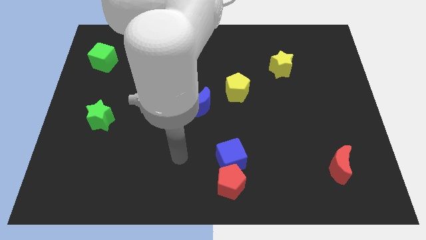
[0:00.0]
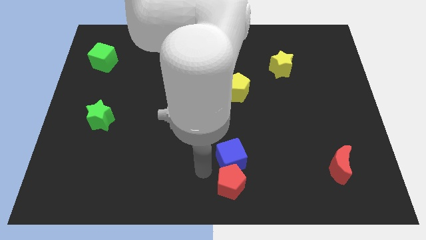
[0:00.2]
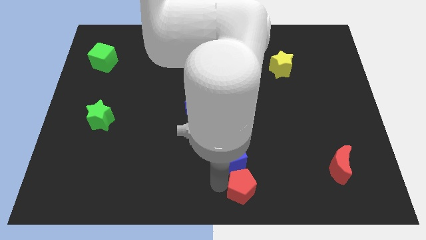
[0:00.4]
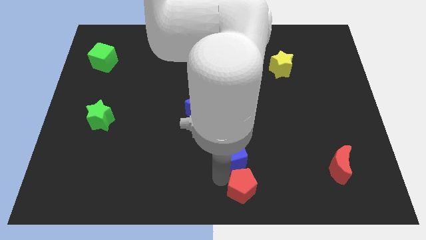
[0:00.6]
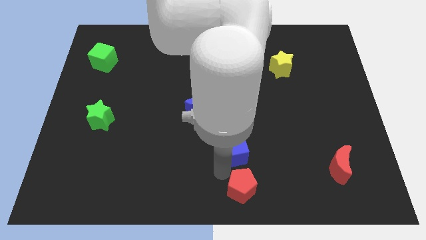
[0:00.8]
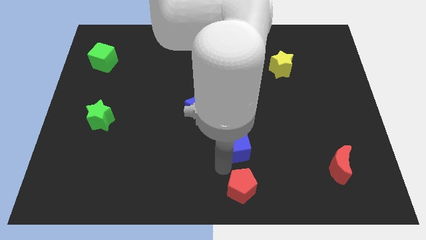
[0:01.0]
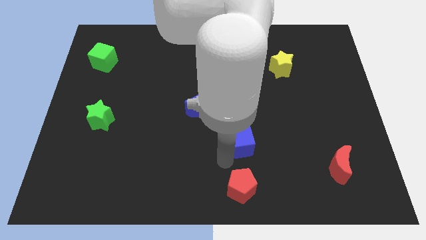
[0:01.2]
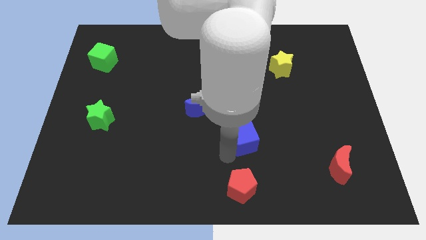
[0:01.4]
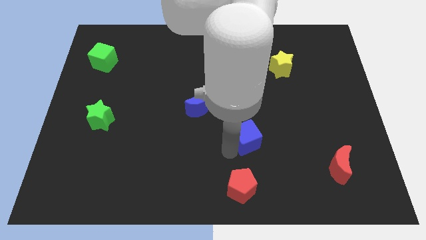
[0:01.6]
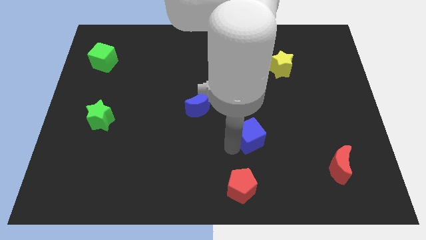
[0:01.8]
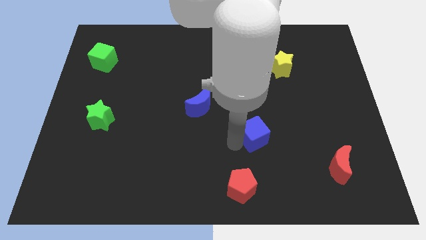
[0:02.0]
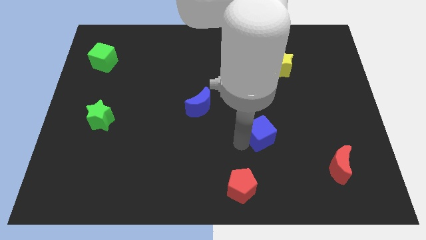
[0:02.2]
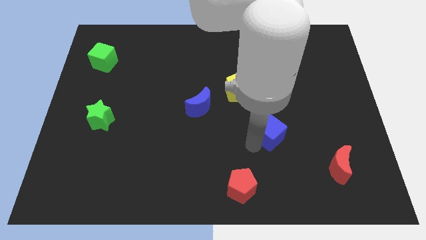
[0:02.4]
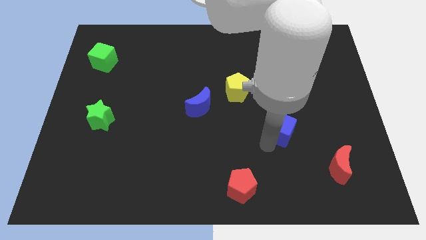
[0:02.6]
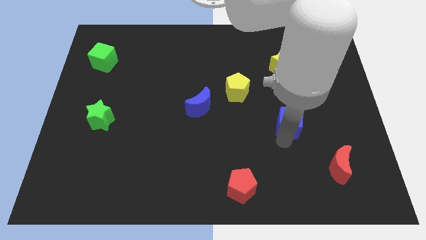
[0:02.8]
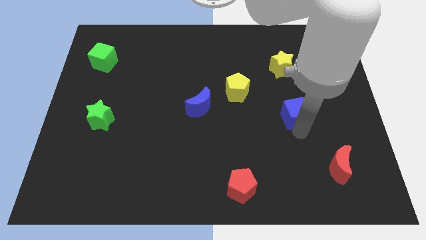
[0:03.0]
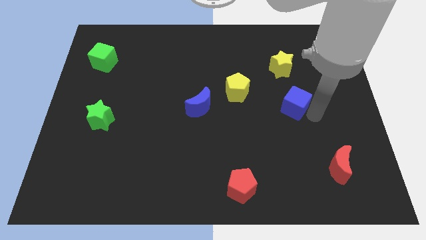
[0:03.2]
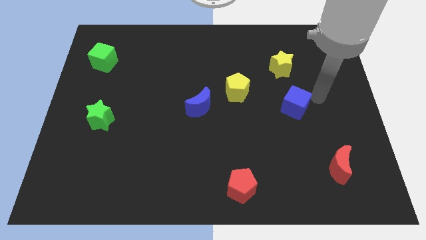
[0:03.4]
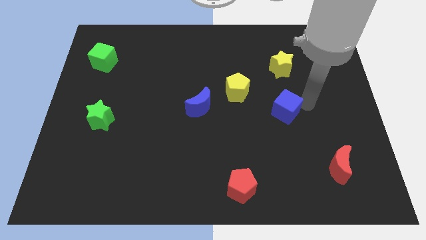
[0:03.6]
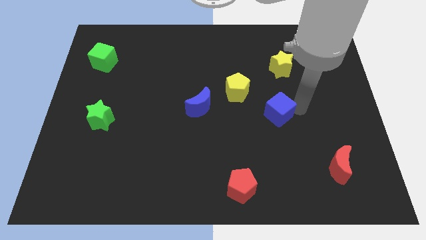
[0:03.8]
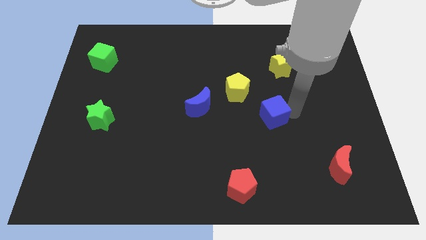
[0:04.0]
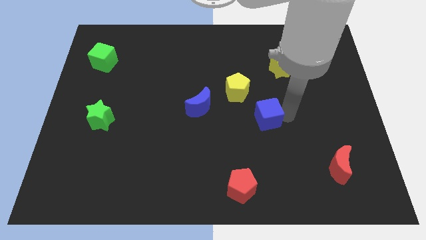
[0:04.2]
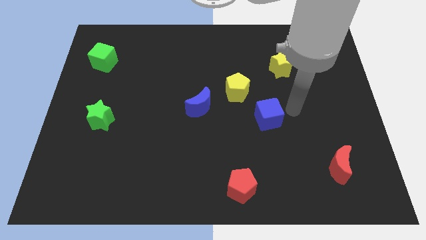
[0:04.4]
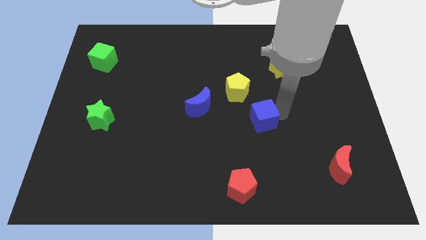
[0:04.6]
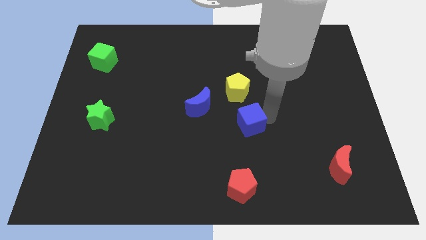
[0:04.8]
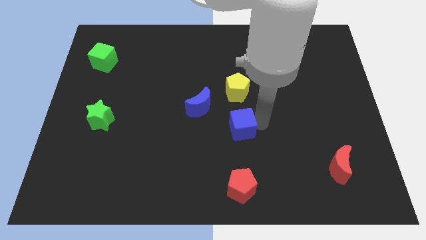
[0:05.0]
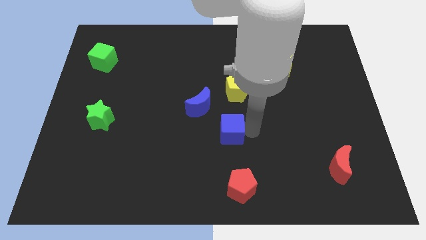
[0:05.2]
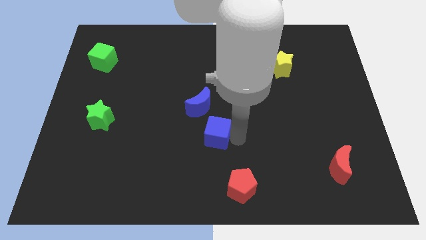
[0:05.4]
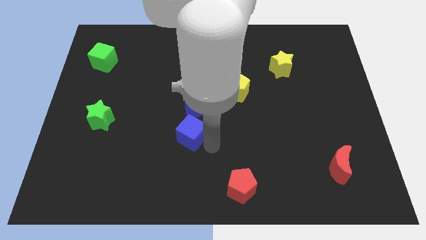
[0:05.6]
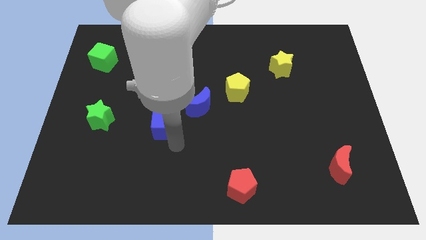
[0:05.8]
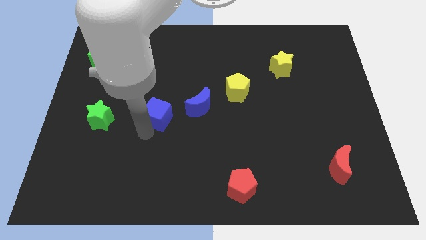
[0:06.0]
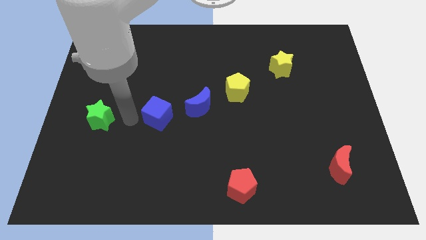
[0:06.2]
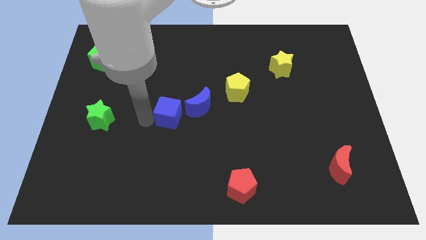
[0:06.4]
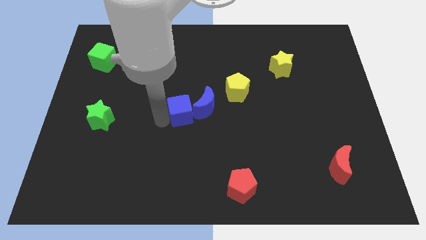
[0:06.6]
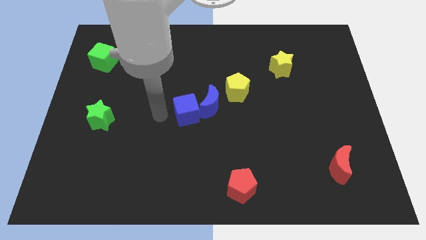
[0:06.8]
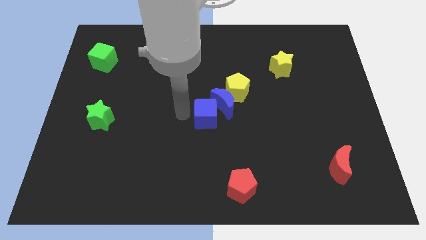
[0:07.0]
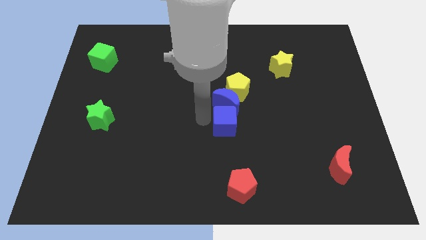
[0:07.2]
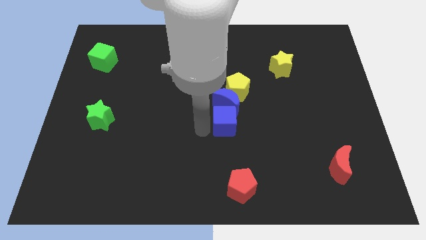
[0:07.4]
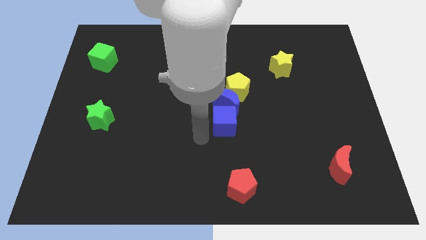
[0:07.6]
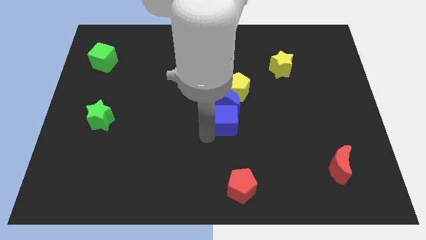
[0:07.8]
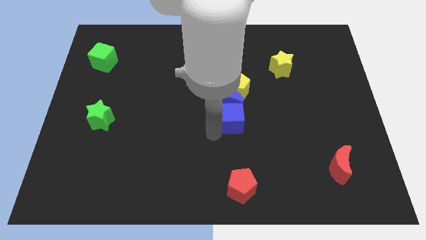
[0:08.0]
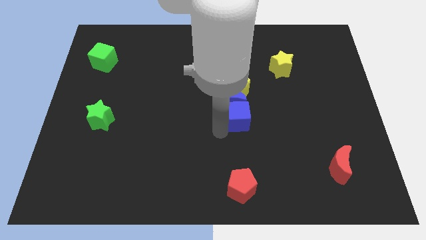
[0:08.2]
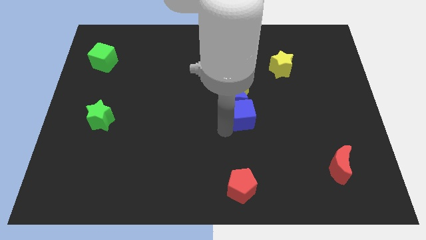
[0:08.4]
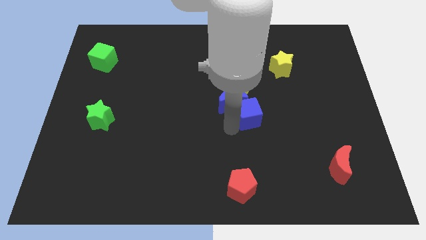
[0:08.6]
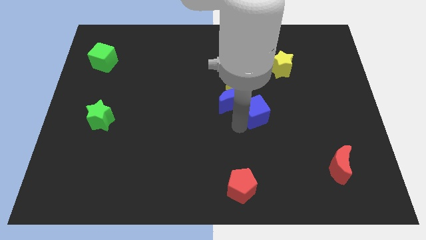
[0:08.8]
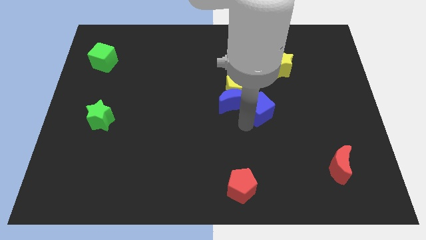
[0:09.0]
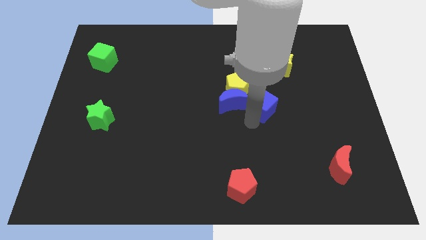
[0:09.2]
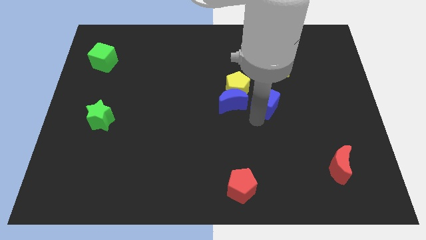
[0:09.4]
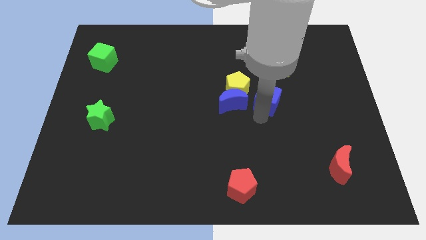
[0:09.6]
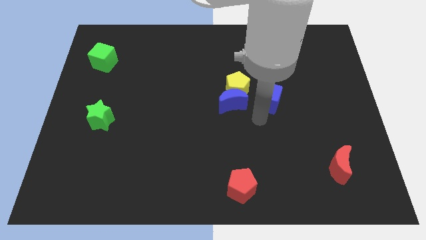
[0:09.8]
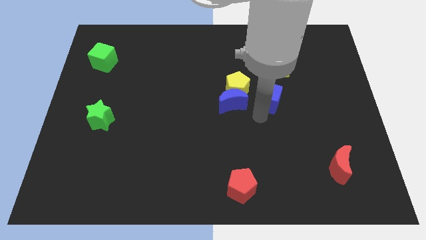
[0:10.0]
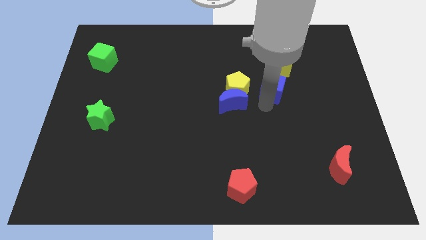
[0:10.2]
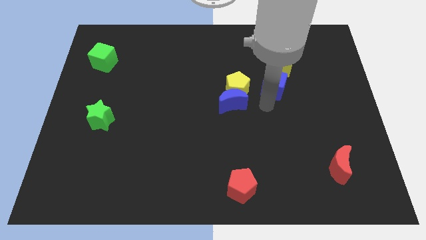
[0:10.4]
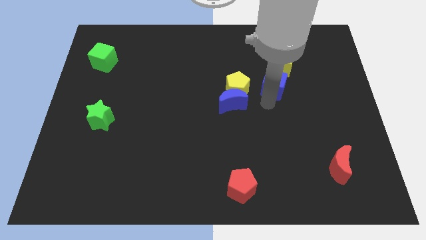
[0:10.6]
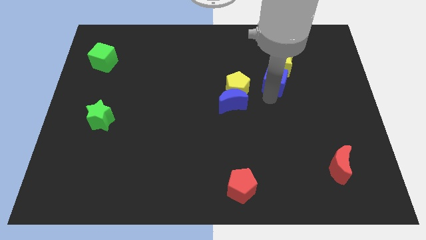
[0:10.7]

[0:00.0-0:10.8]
slide the blue cube towards the yellow star

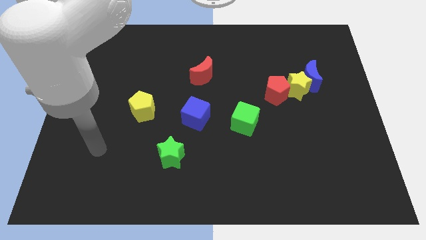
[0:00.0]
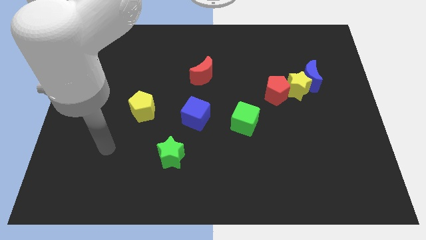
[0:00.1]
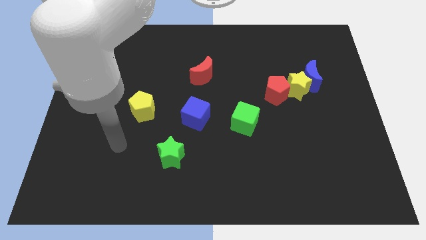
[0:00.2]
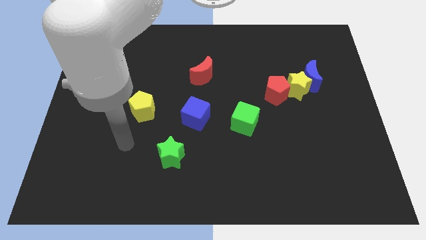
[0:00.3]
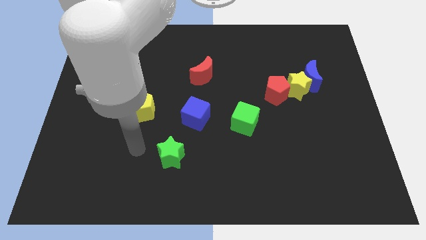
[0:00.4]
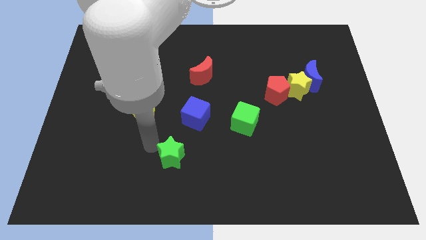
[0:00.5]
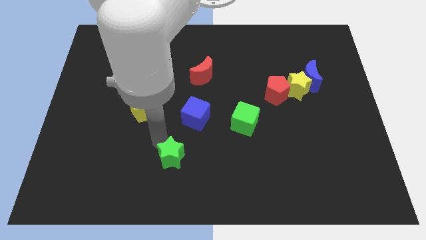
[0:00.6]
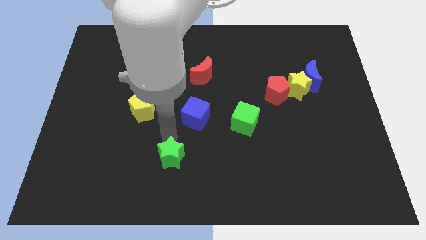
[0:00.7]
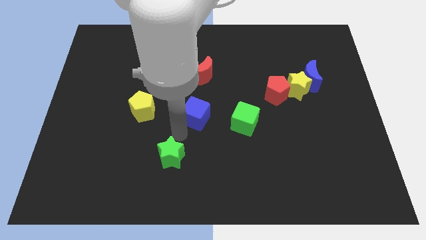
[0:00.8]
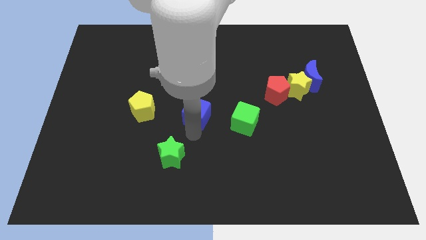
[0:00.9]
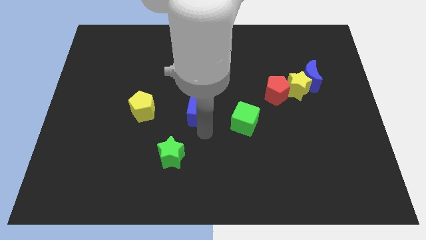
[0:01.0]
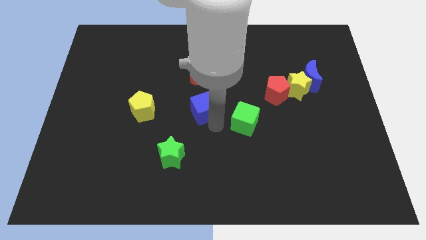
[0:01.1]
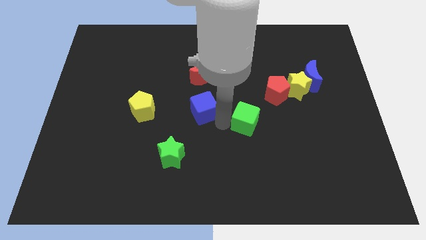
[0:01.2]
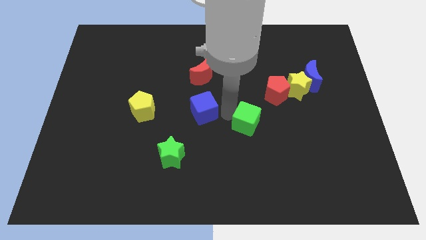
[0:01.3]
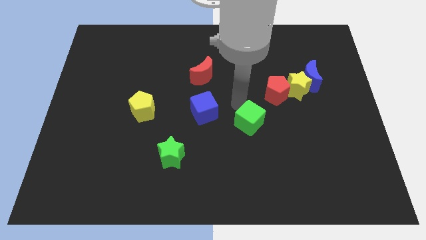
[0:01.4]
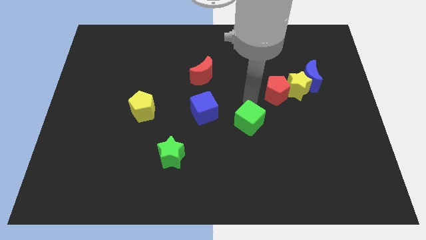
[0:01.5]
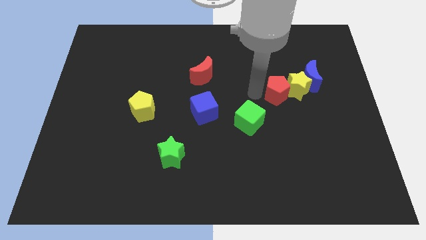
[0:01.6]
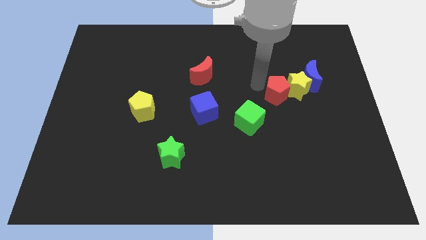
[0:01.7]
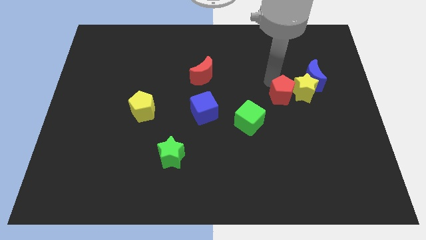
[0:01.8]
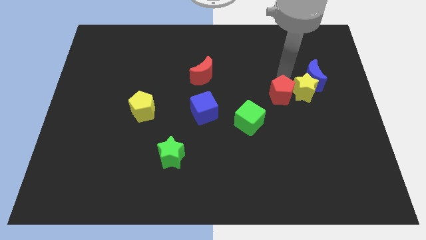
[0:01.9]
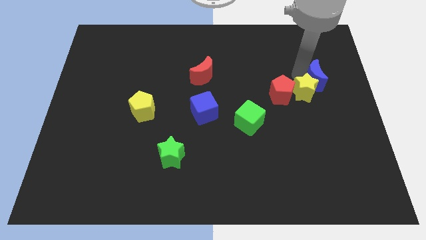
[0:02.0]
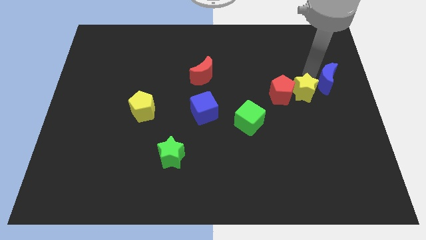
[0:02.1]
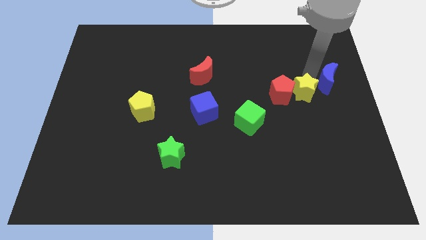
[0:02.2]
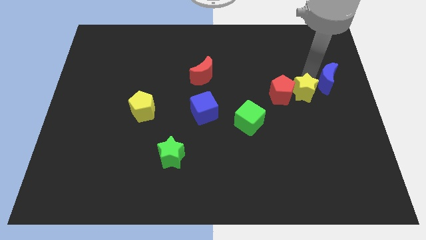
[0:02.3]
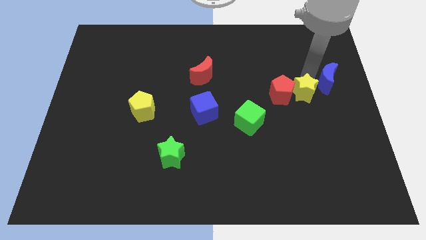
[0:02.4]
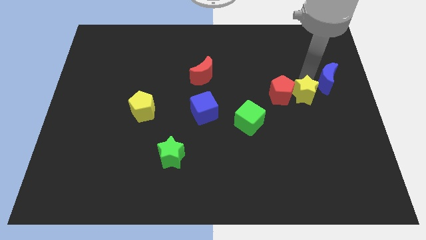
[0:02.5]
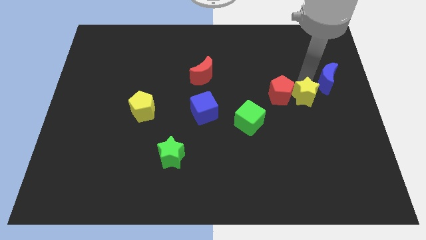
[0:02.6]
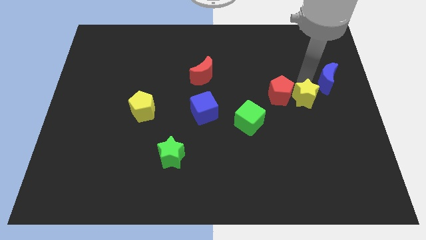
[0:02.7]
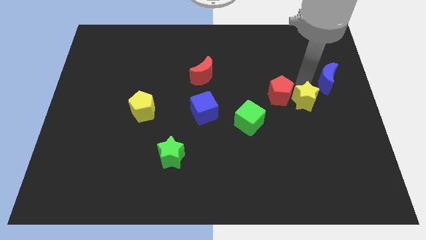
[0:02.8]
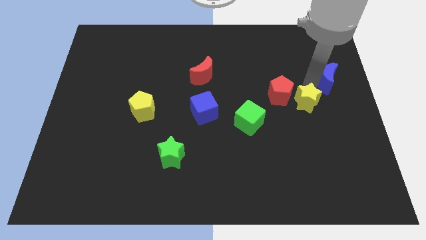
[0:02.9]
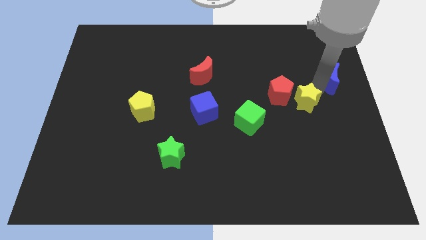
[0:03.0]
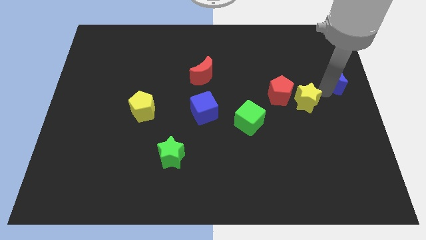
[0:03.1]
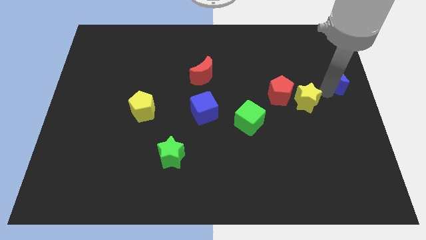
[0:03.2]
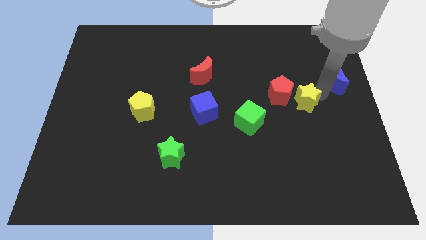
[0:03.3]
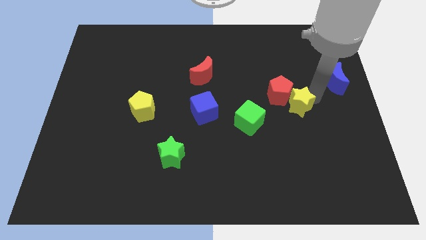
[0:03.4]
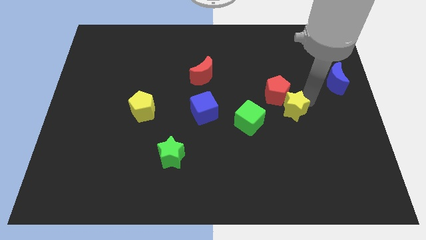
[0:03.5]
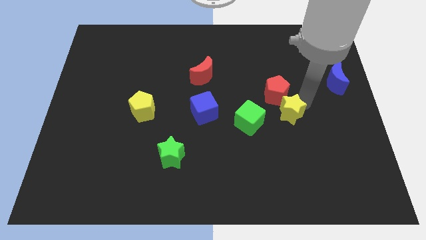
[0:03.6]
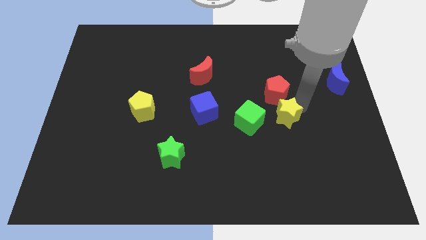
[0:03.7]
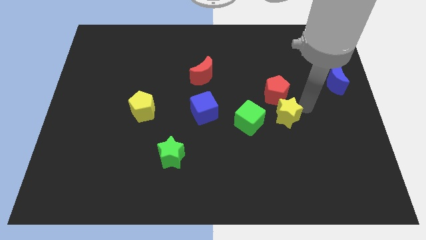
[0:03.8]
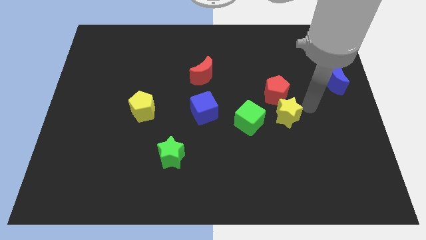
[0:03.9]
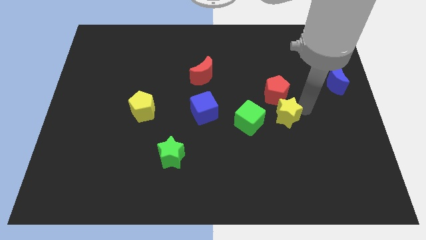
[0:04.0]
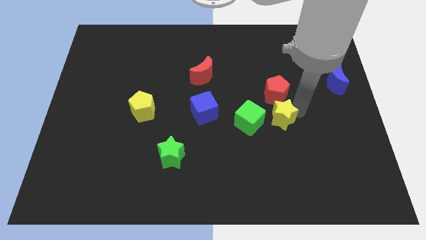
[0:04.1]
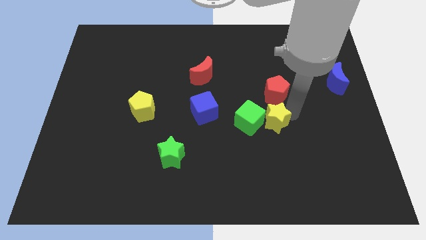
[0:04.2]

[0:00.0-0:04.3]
slide the yellow star towards the green cube
